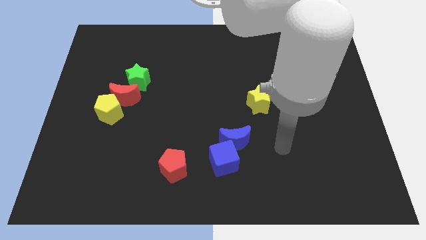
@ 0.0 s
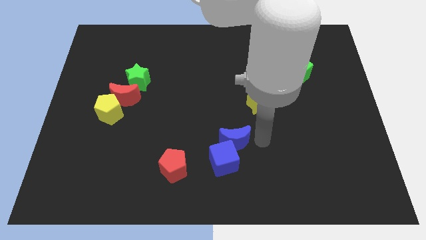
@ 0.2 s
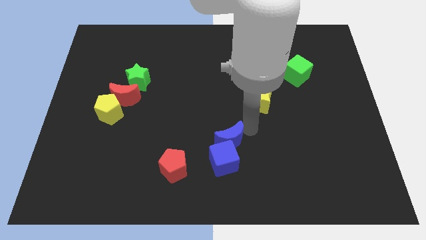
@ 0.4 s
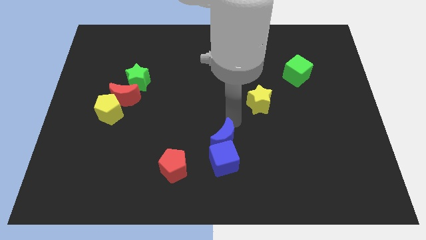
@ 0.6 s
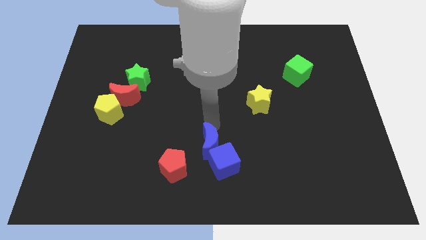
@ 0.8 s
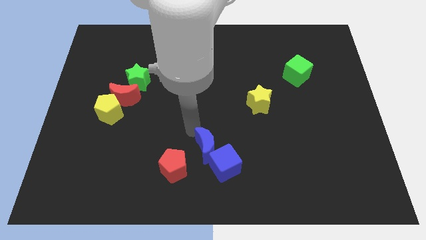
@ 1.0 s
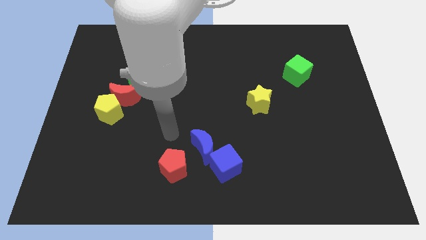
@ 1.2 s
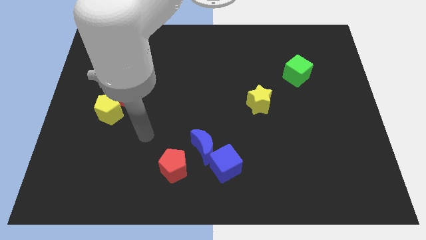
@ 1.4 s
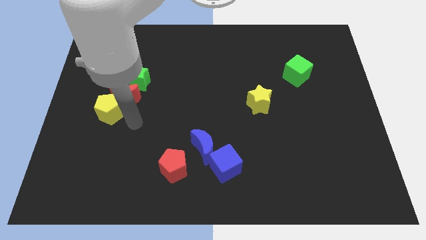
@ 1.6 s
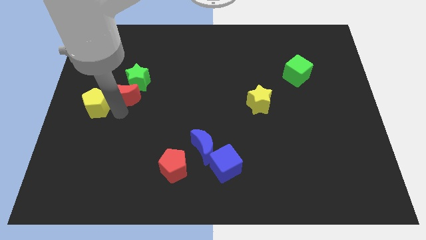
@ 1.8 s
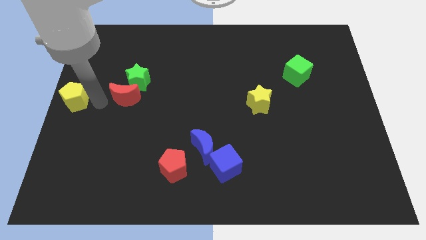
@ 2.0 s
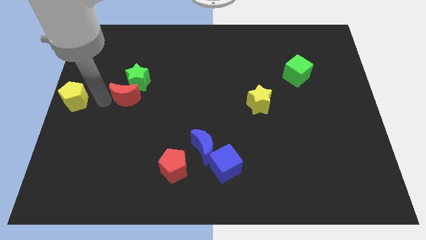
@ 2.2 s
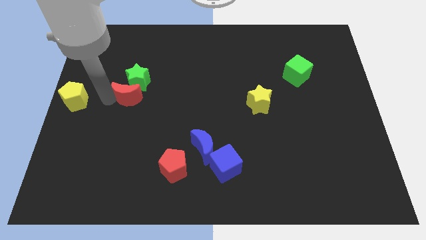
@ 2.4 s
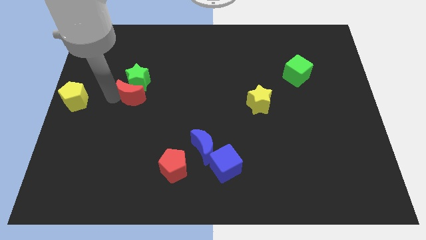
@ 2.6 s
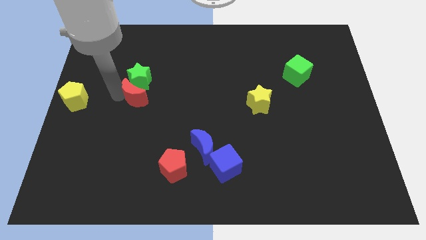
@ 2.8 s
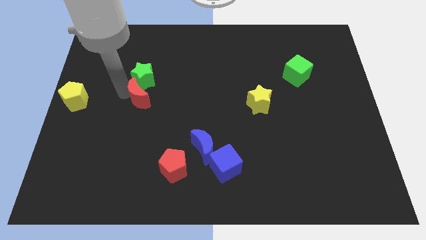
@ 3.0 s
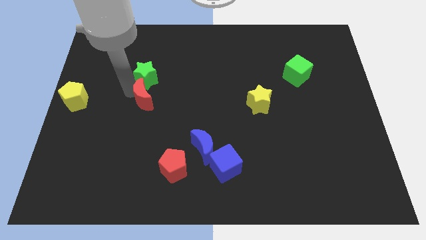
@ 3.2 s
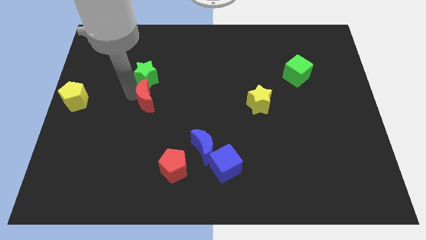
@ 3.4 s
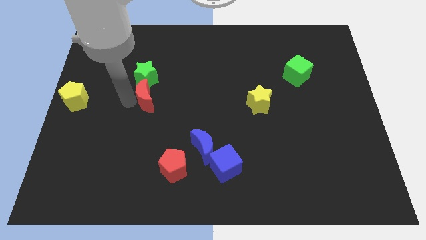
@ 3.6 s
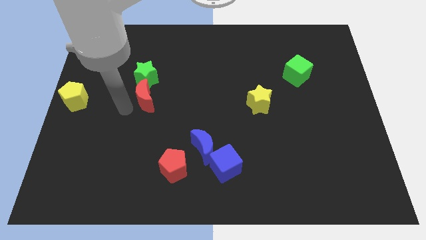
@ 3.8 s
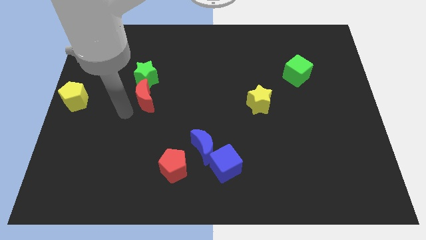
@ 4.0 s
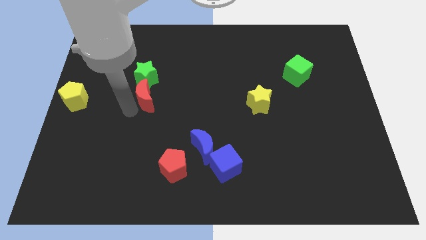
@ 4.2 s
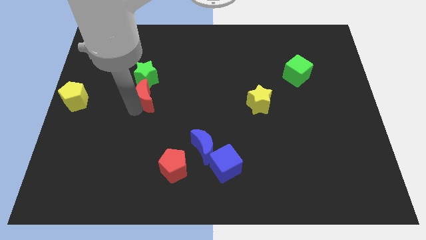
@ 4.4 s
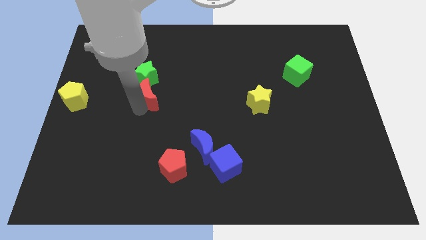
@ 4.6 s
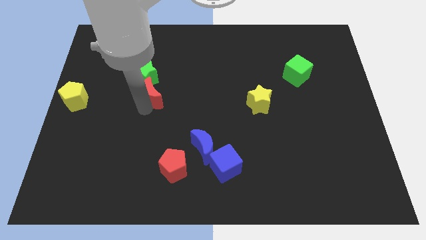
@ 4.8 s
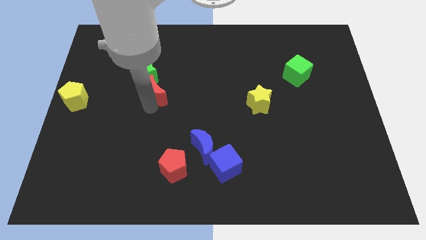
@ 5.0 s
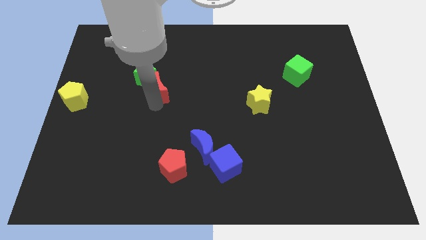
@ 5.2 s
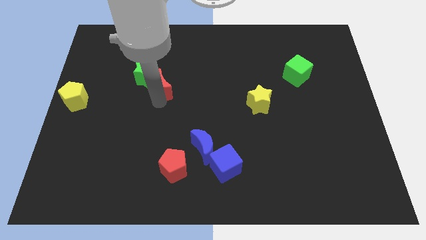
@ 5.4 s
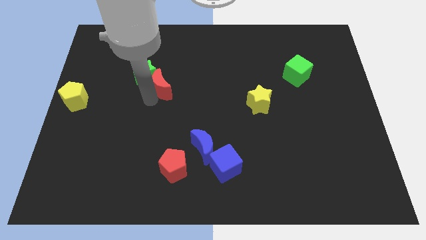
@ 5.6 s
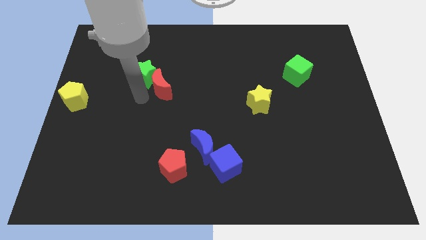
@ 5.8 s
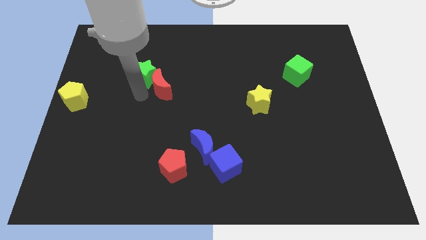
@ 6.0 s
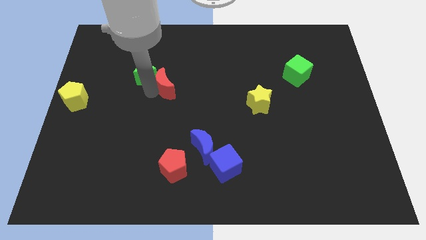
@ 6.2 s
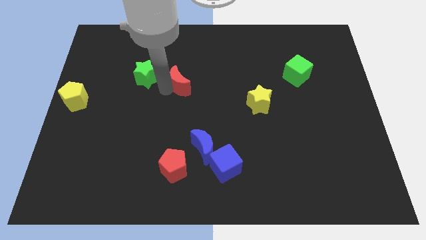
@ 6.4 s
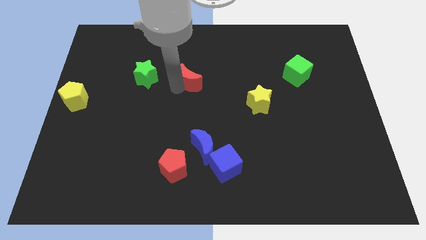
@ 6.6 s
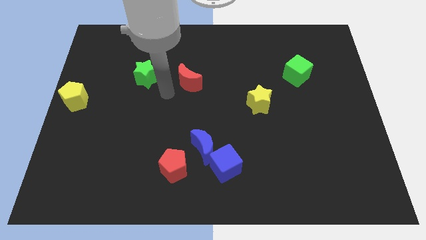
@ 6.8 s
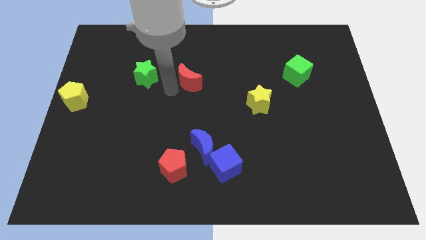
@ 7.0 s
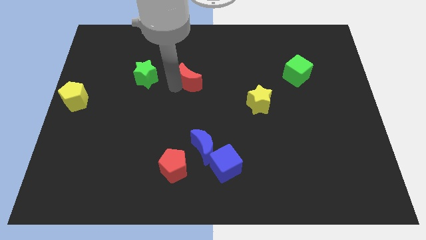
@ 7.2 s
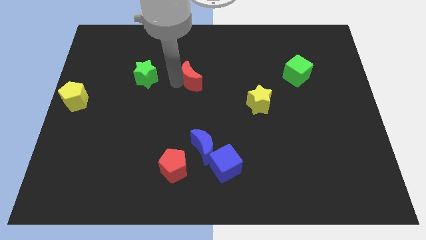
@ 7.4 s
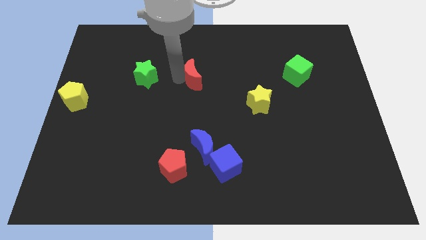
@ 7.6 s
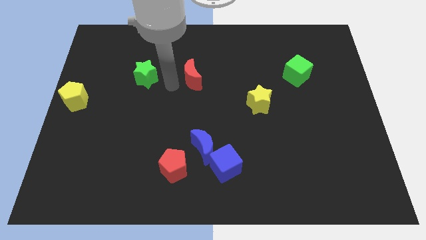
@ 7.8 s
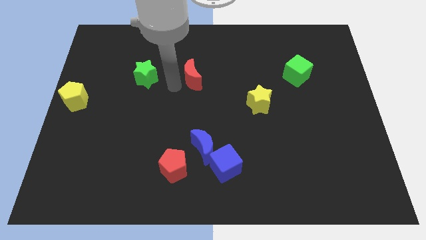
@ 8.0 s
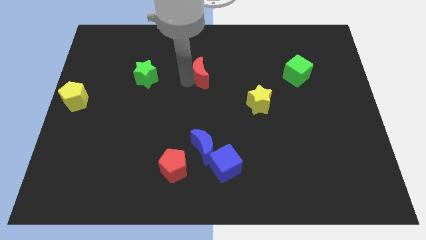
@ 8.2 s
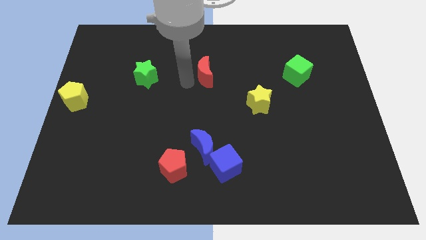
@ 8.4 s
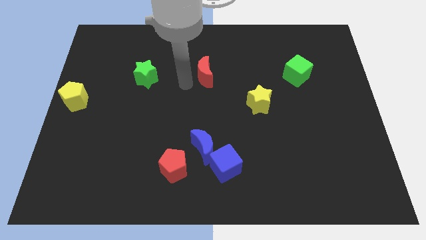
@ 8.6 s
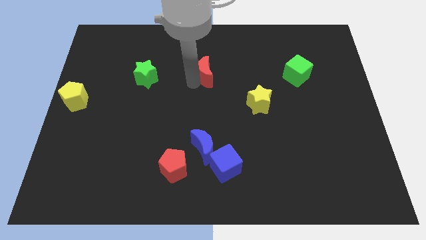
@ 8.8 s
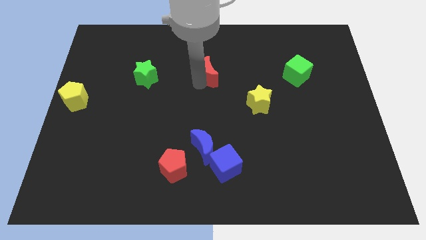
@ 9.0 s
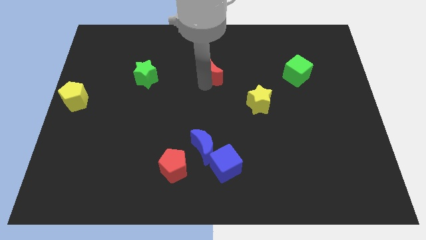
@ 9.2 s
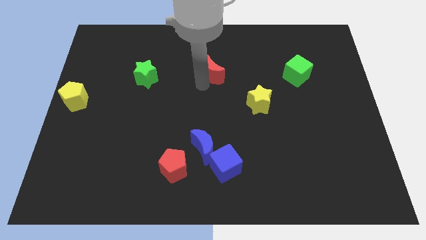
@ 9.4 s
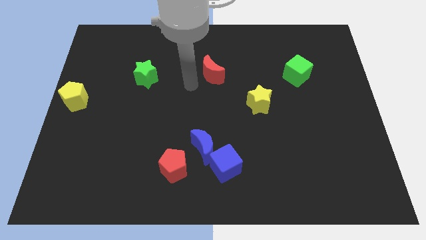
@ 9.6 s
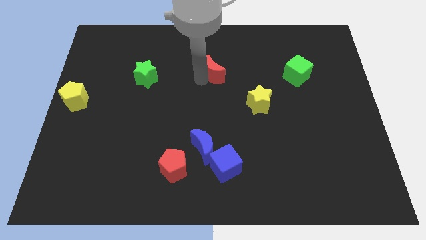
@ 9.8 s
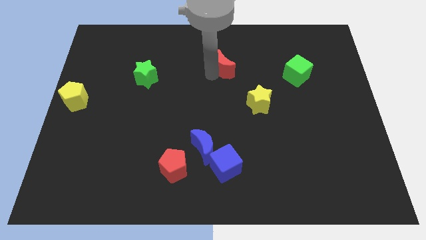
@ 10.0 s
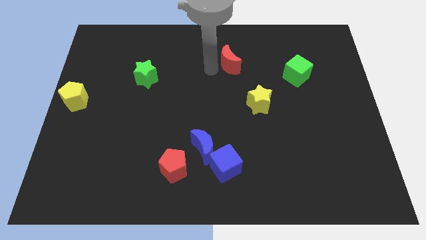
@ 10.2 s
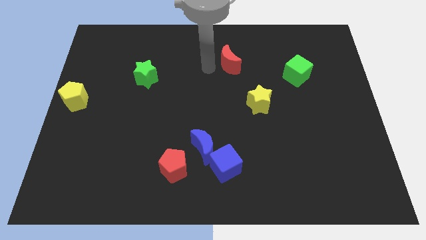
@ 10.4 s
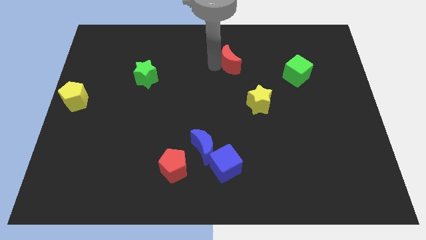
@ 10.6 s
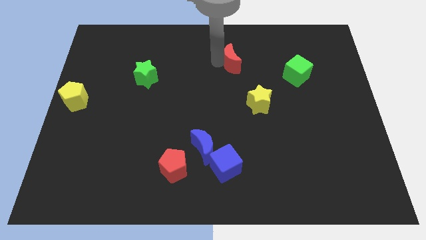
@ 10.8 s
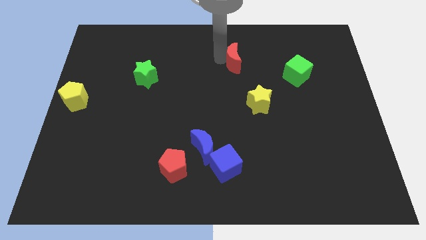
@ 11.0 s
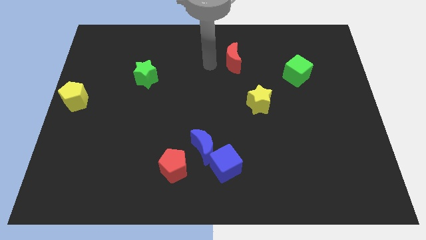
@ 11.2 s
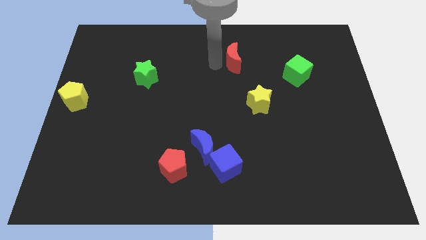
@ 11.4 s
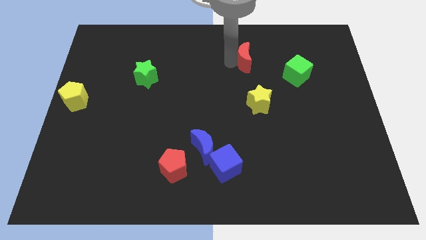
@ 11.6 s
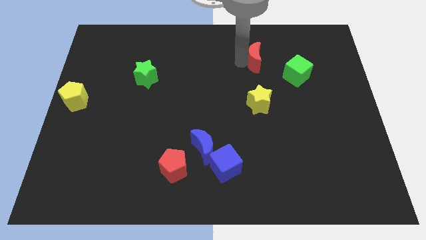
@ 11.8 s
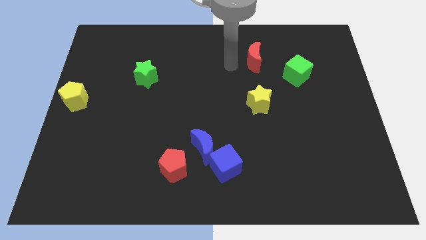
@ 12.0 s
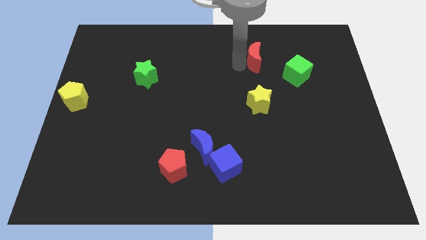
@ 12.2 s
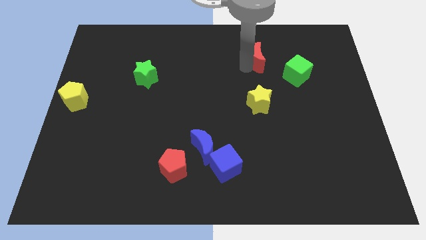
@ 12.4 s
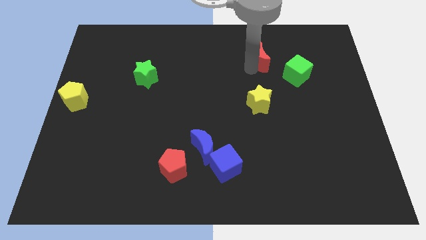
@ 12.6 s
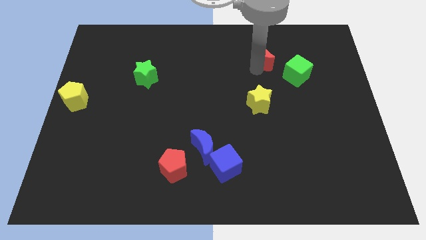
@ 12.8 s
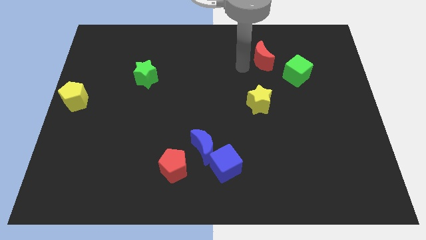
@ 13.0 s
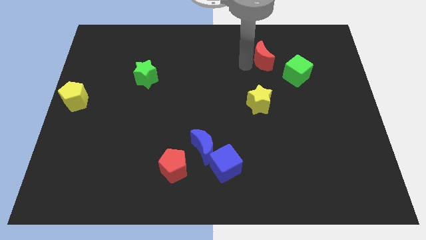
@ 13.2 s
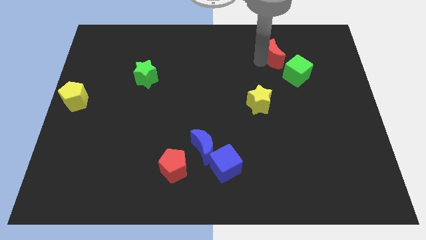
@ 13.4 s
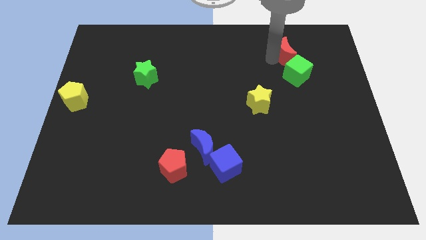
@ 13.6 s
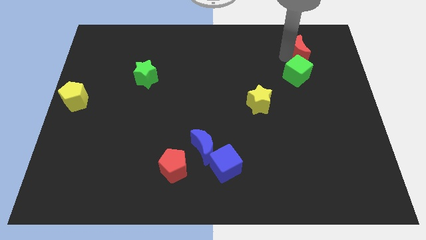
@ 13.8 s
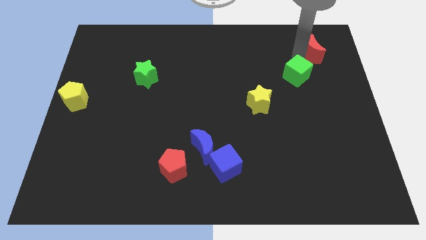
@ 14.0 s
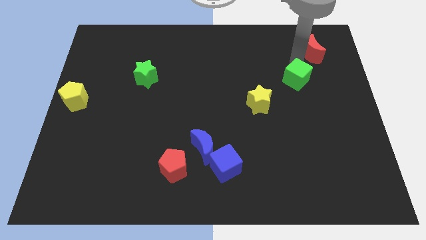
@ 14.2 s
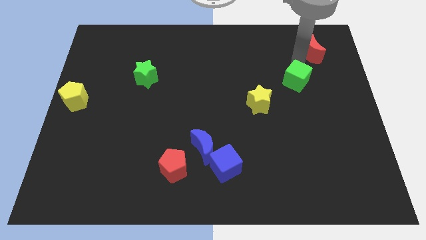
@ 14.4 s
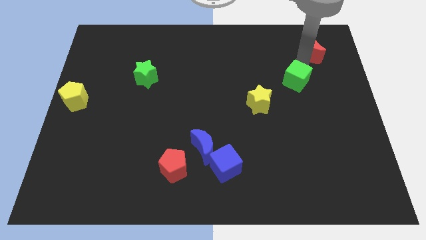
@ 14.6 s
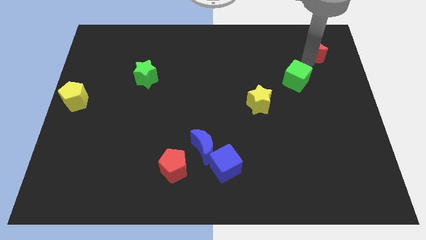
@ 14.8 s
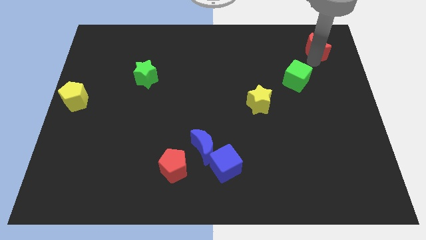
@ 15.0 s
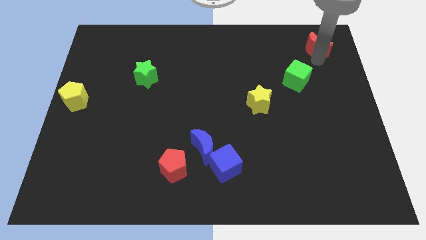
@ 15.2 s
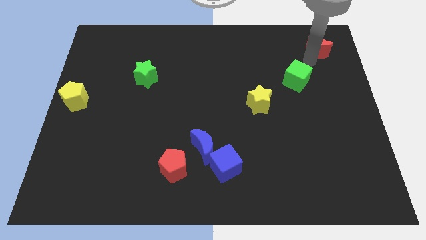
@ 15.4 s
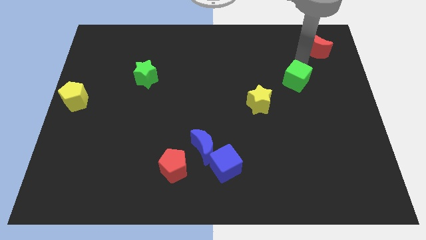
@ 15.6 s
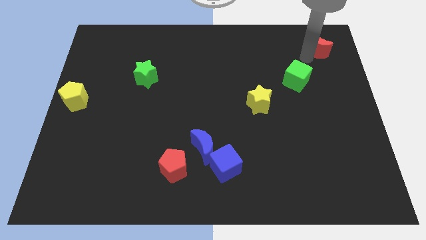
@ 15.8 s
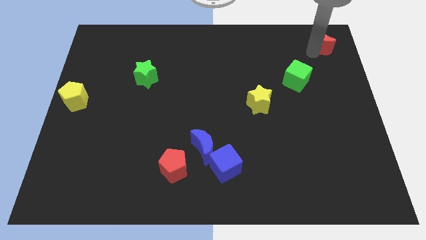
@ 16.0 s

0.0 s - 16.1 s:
push the red moon to the top right
